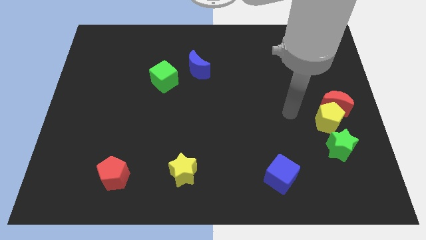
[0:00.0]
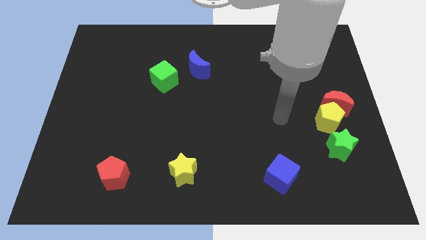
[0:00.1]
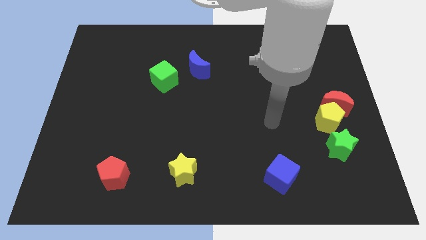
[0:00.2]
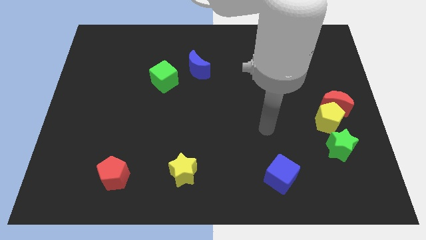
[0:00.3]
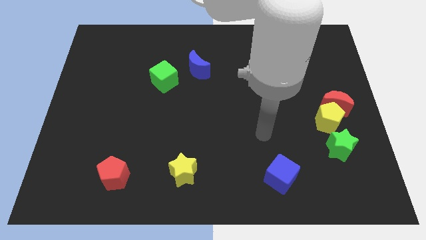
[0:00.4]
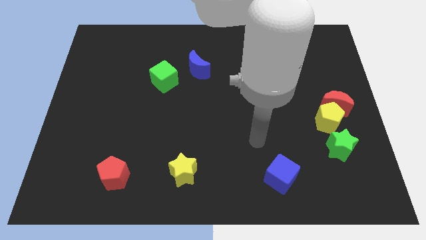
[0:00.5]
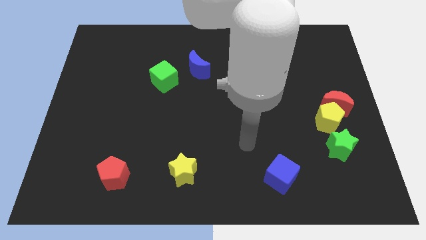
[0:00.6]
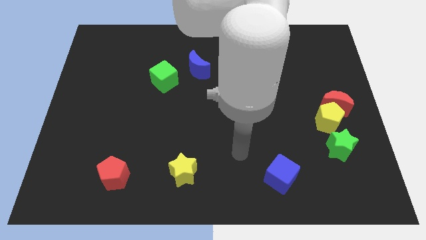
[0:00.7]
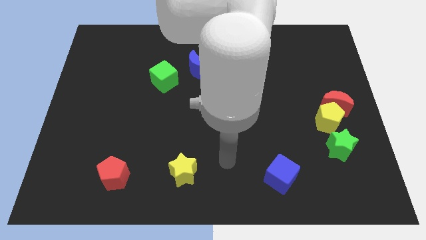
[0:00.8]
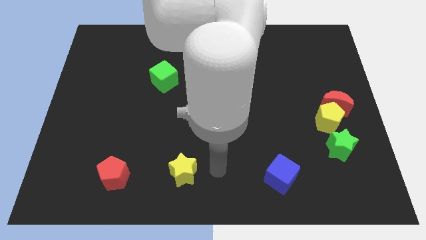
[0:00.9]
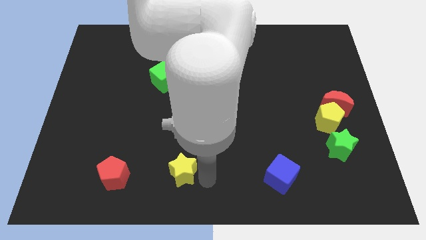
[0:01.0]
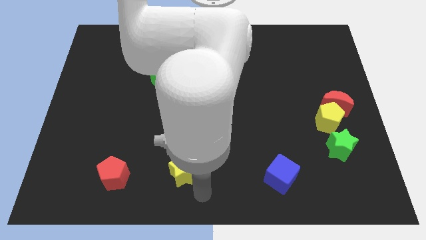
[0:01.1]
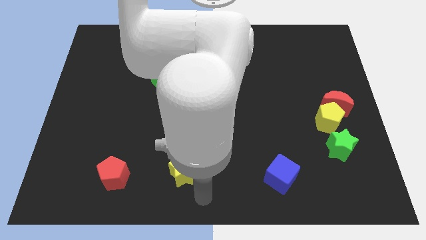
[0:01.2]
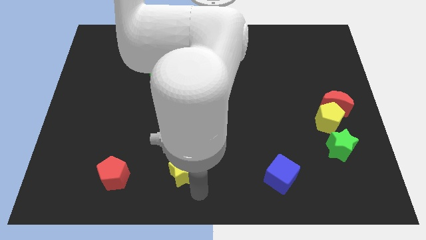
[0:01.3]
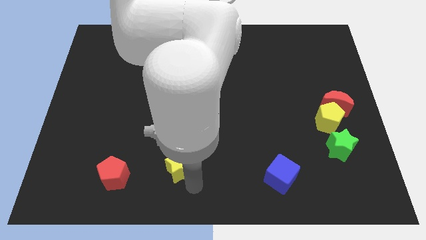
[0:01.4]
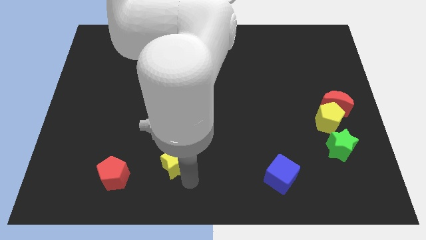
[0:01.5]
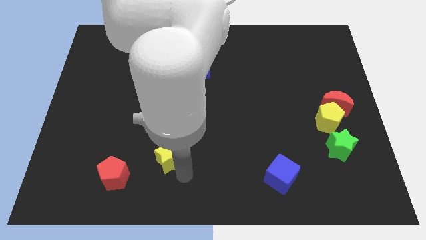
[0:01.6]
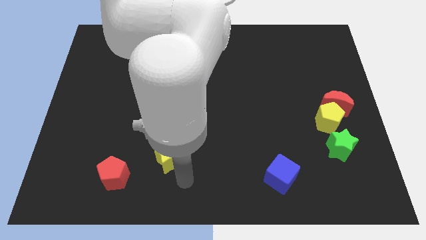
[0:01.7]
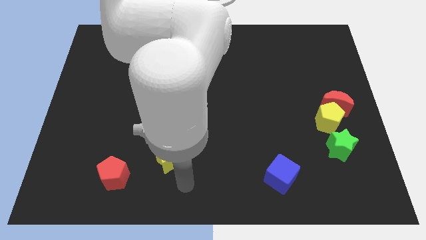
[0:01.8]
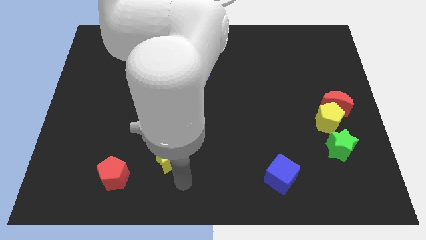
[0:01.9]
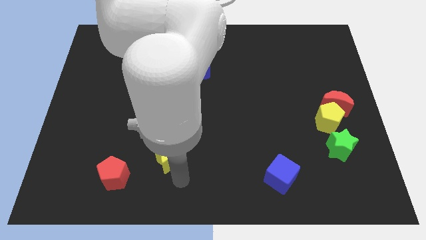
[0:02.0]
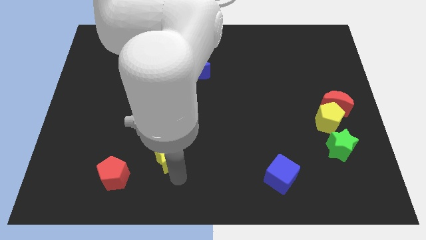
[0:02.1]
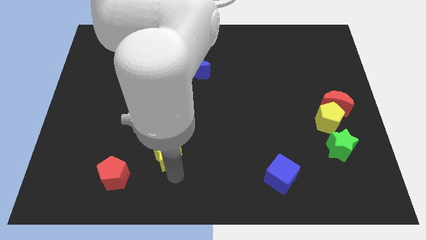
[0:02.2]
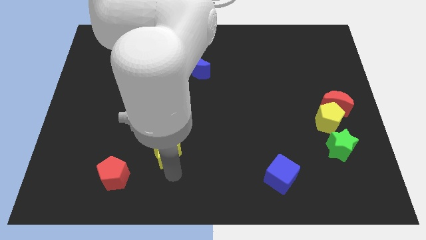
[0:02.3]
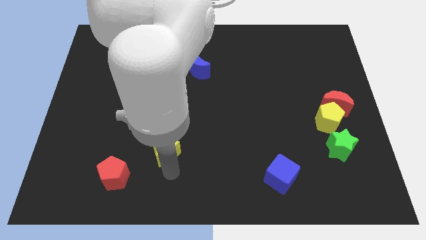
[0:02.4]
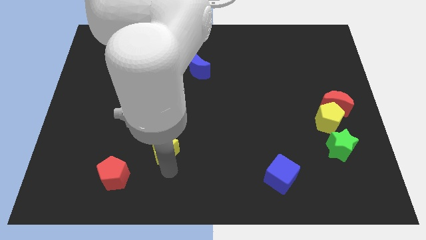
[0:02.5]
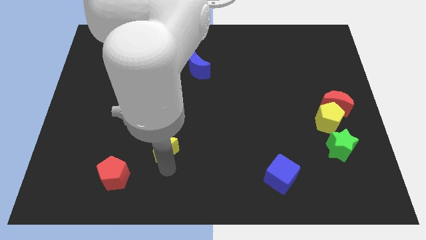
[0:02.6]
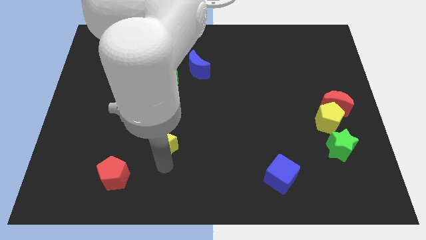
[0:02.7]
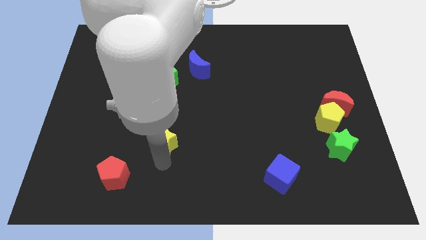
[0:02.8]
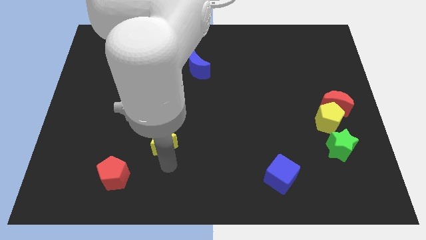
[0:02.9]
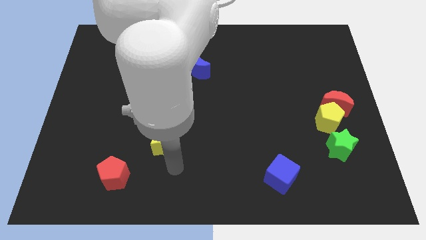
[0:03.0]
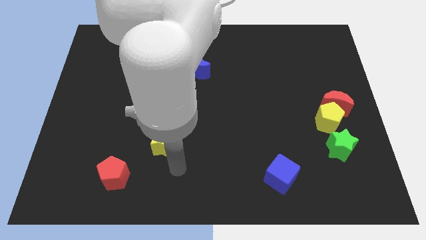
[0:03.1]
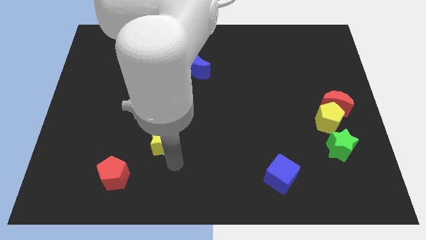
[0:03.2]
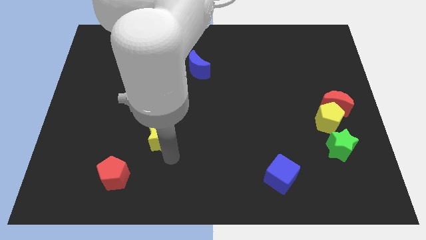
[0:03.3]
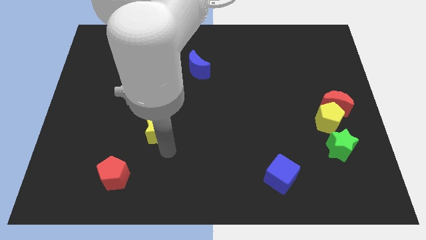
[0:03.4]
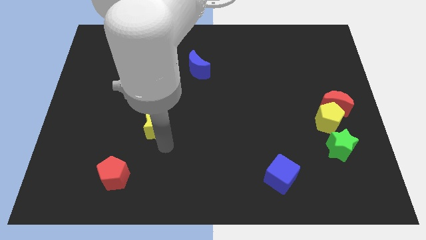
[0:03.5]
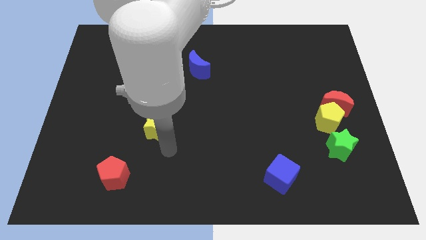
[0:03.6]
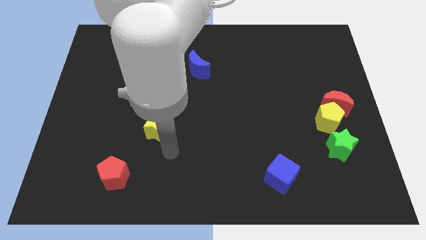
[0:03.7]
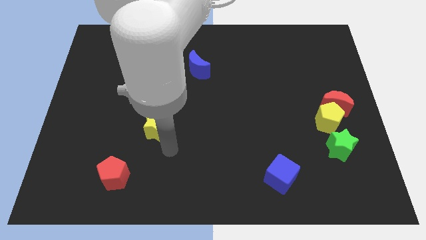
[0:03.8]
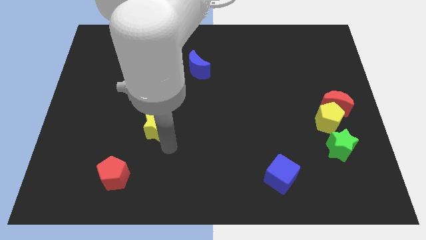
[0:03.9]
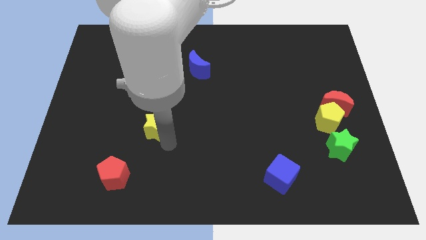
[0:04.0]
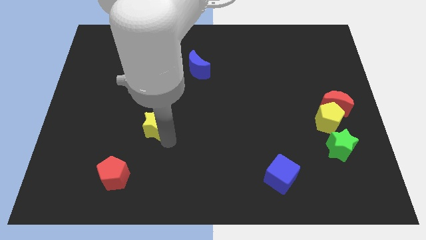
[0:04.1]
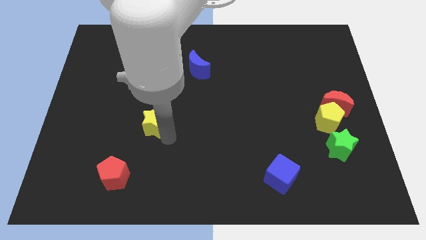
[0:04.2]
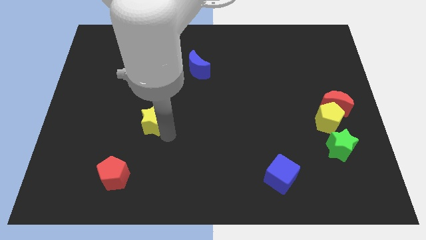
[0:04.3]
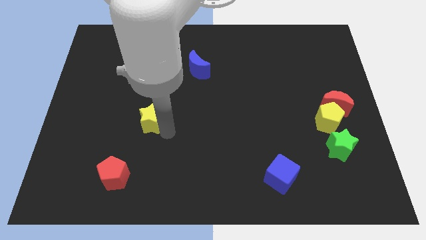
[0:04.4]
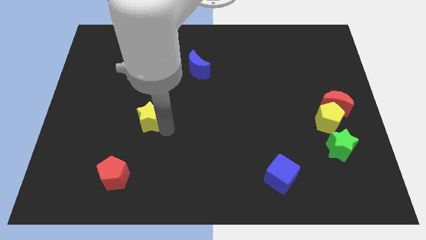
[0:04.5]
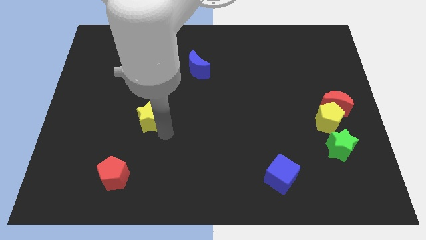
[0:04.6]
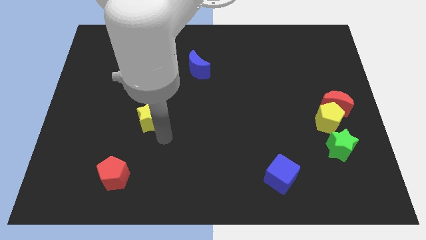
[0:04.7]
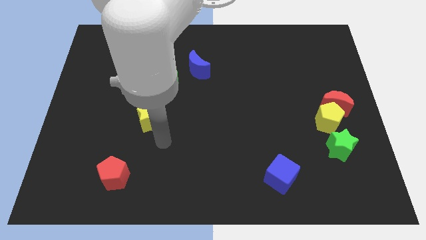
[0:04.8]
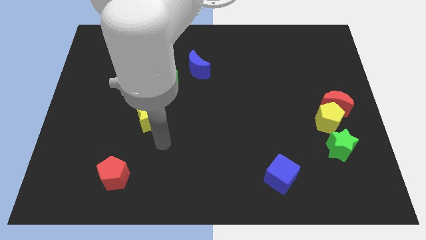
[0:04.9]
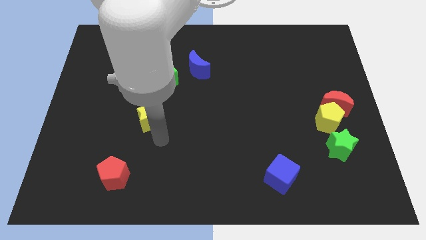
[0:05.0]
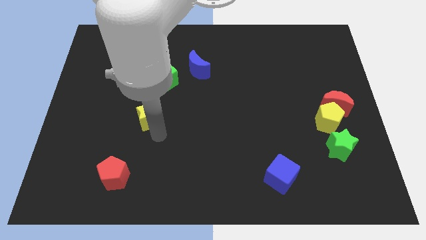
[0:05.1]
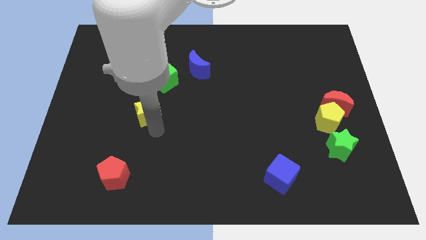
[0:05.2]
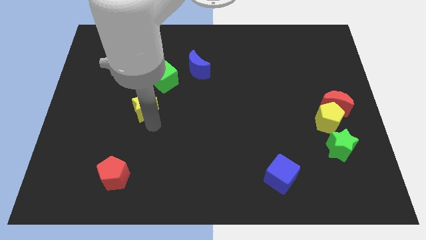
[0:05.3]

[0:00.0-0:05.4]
put the yellow star diagonally down and to the left of the green cube

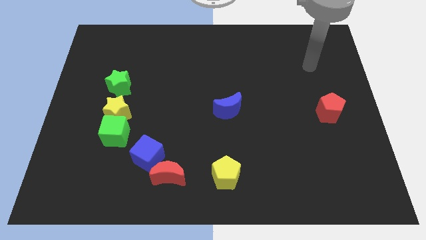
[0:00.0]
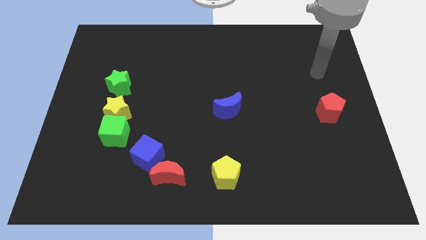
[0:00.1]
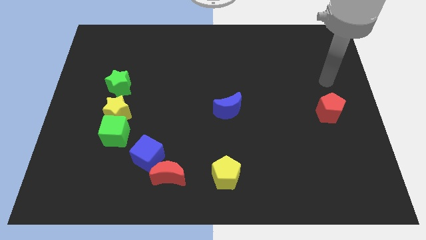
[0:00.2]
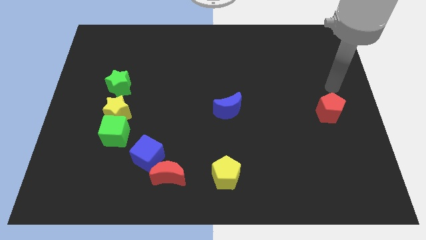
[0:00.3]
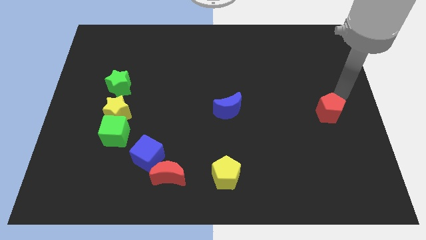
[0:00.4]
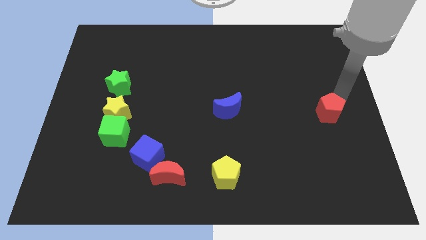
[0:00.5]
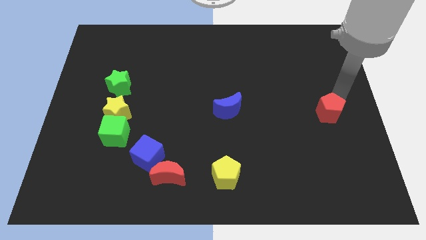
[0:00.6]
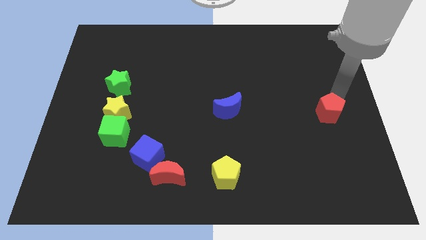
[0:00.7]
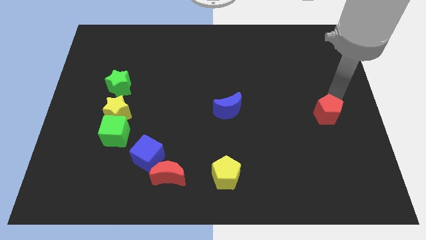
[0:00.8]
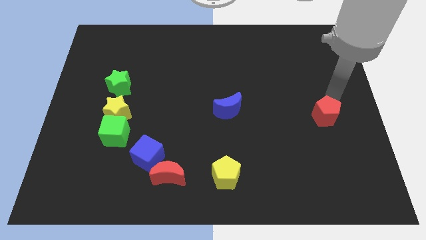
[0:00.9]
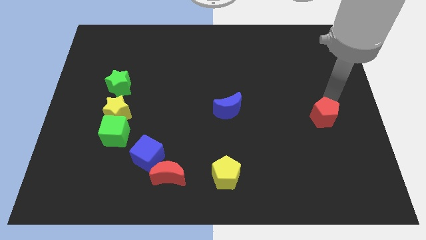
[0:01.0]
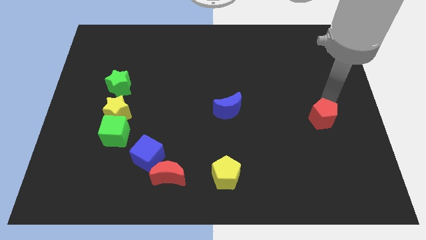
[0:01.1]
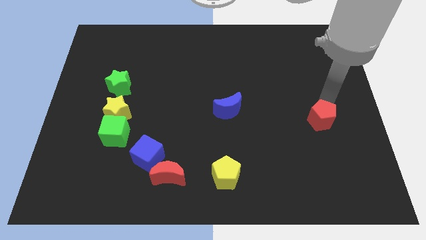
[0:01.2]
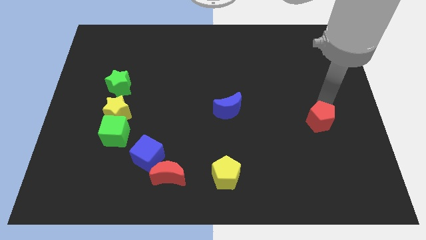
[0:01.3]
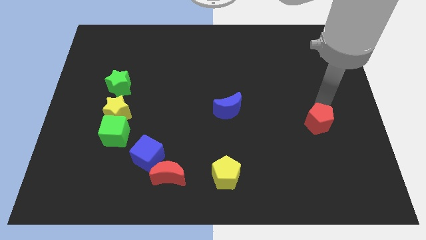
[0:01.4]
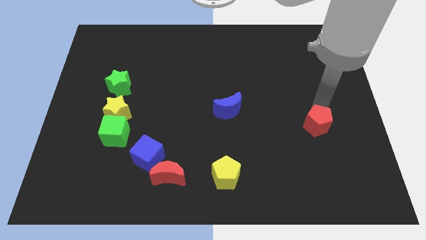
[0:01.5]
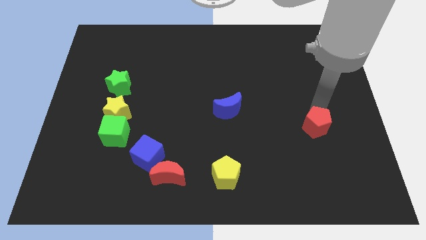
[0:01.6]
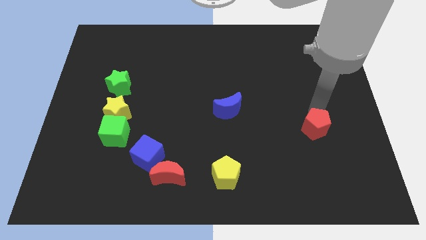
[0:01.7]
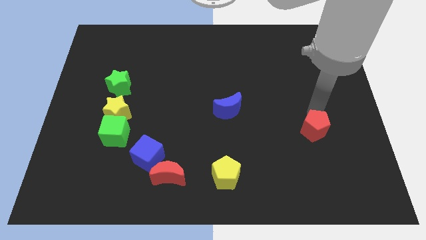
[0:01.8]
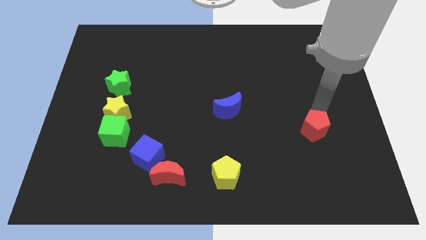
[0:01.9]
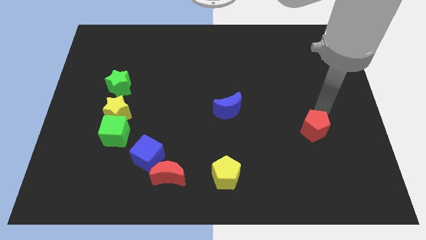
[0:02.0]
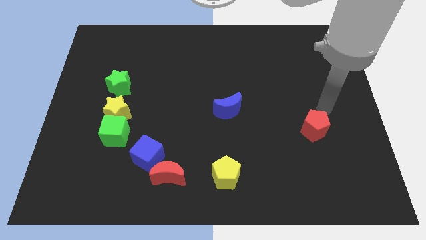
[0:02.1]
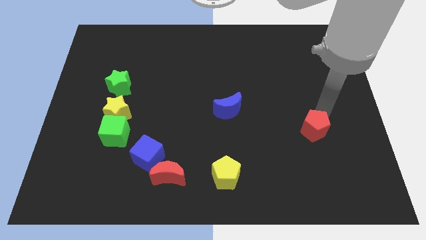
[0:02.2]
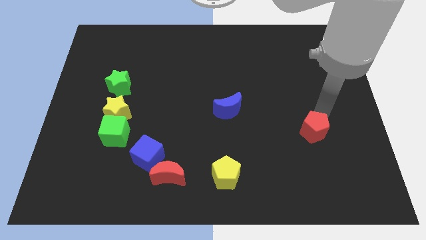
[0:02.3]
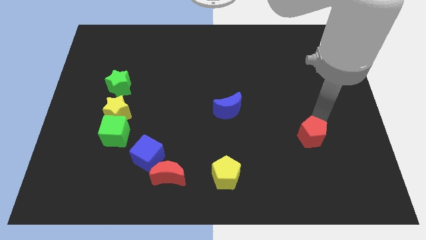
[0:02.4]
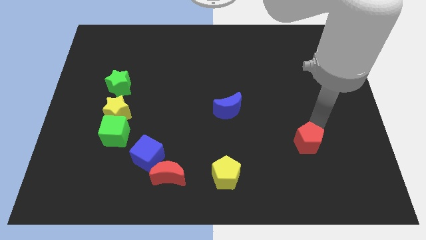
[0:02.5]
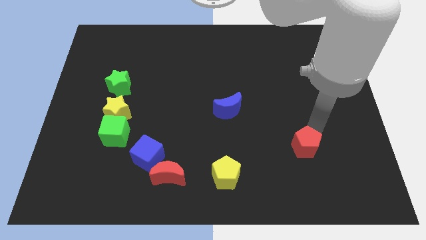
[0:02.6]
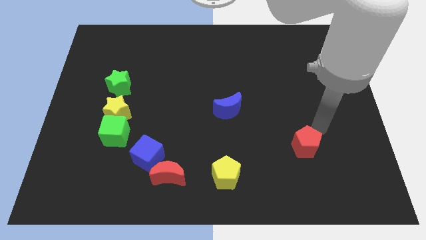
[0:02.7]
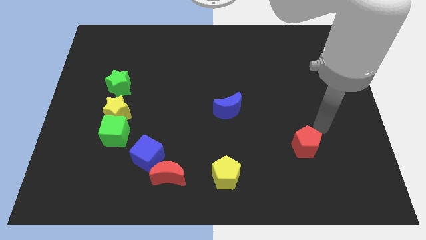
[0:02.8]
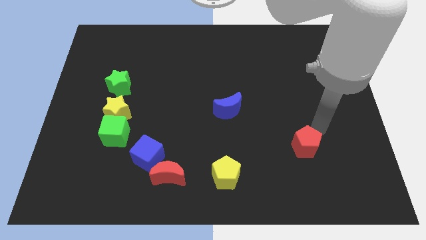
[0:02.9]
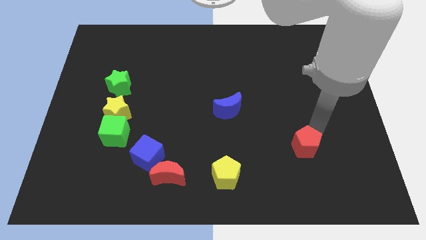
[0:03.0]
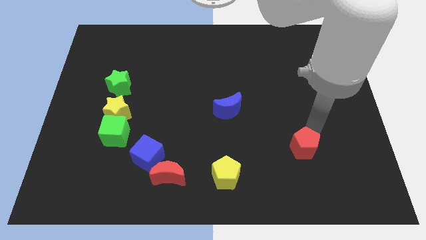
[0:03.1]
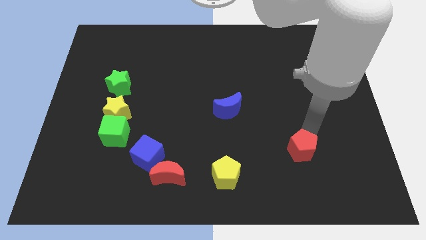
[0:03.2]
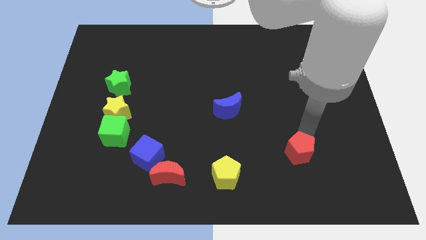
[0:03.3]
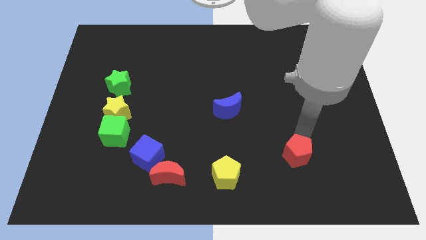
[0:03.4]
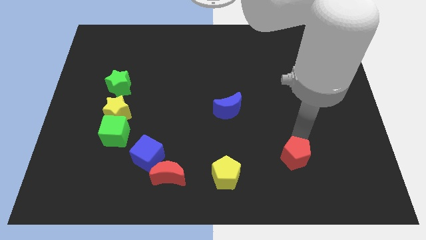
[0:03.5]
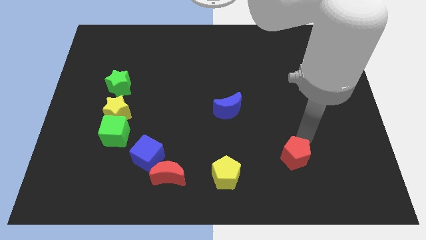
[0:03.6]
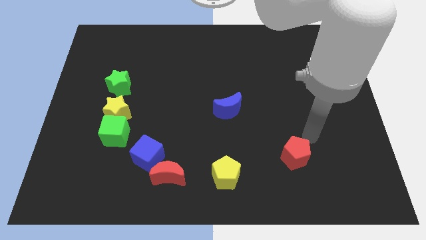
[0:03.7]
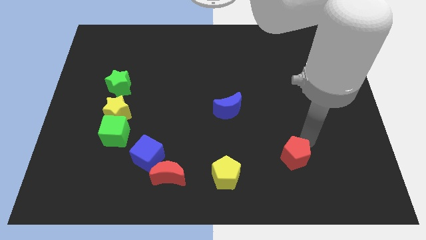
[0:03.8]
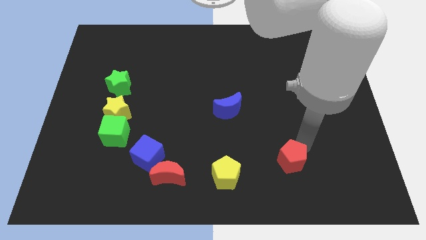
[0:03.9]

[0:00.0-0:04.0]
slide the red pentagon to the right of the yellow pentagon
